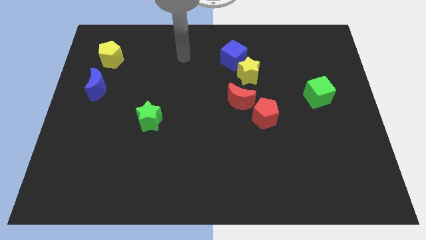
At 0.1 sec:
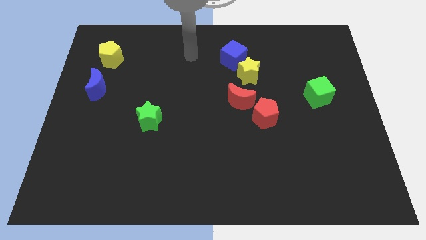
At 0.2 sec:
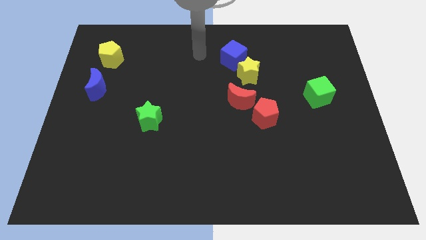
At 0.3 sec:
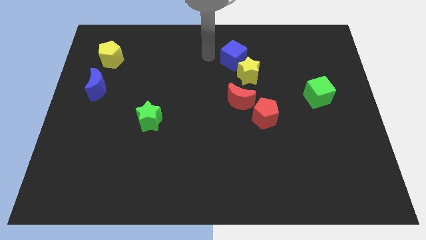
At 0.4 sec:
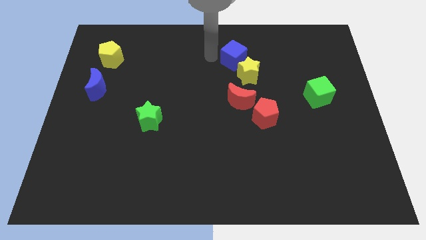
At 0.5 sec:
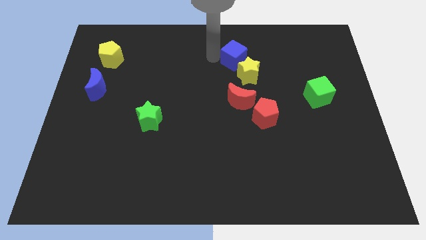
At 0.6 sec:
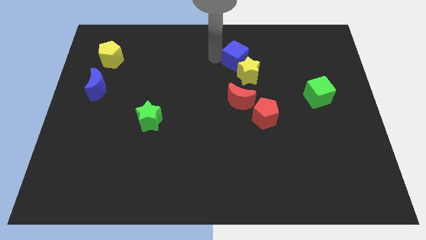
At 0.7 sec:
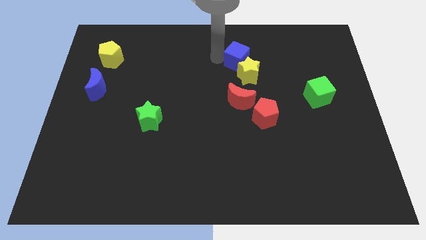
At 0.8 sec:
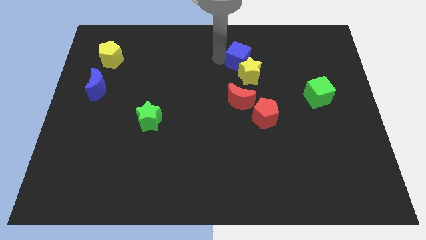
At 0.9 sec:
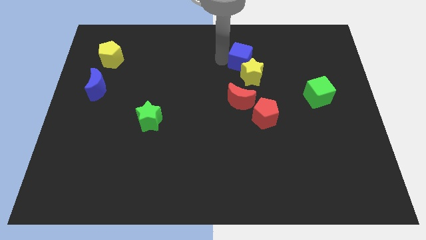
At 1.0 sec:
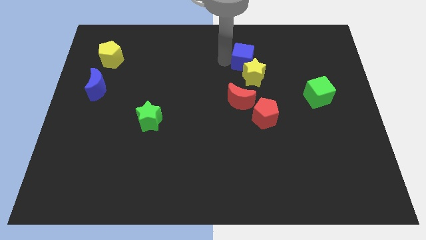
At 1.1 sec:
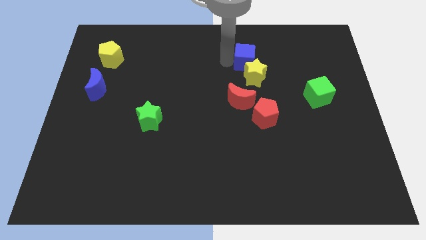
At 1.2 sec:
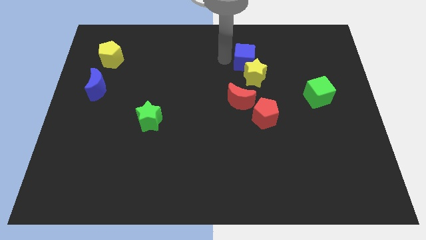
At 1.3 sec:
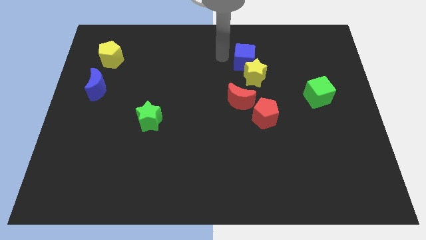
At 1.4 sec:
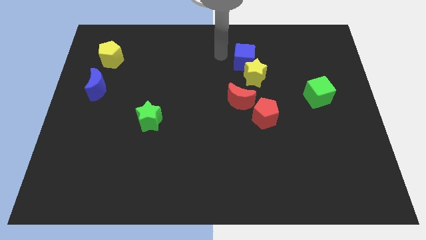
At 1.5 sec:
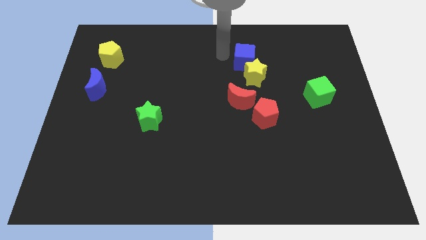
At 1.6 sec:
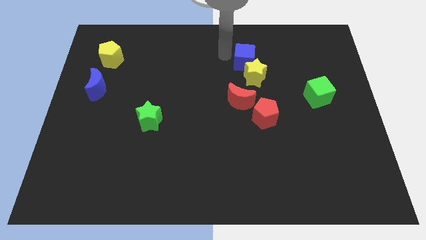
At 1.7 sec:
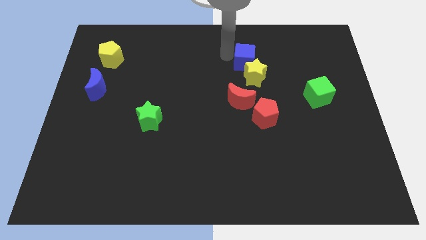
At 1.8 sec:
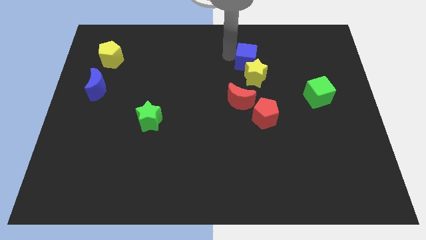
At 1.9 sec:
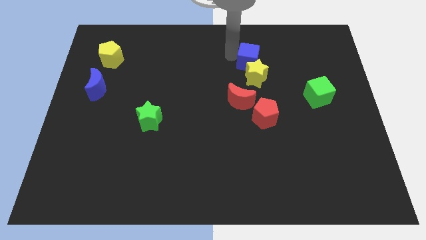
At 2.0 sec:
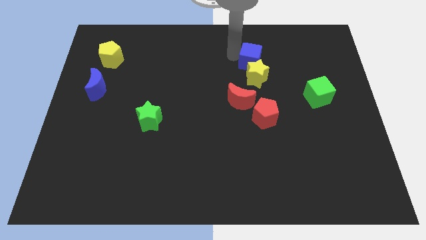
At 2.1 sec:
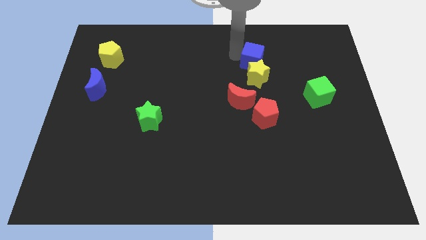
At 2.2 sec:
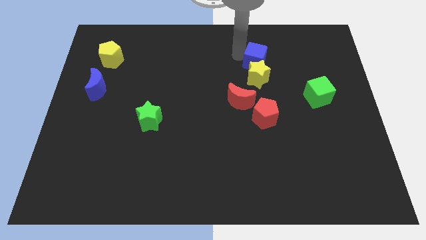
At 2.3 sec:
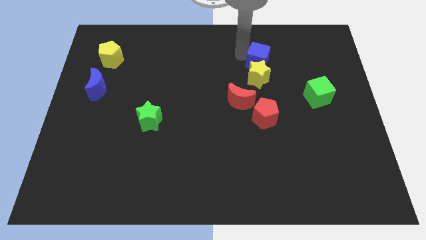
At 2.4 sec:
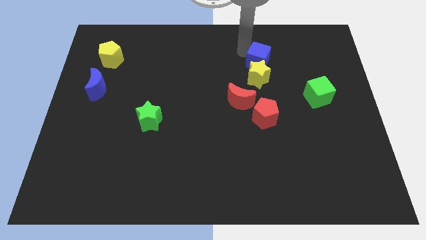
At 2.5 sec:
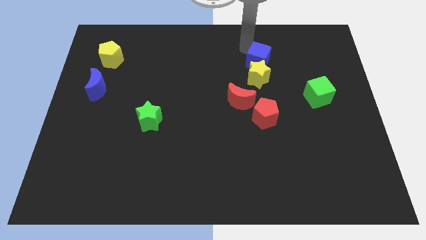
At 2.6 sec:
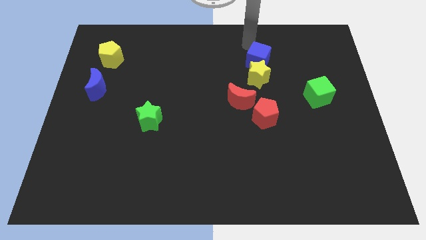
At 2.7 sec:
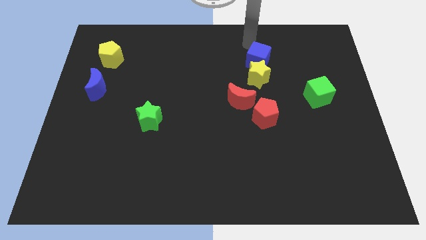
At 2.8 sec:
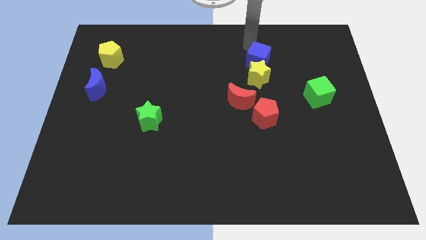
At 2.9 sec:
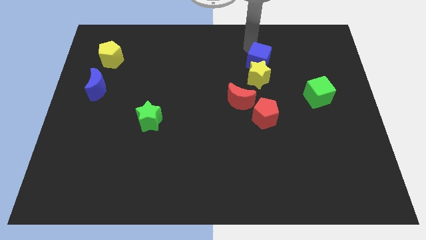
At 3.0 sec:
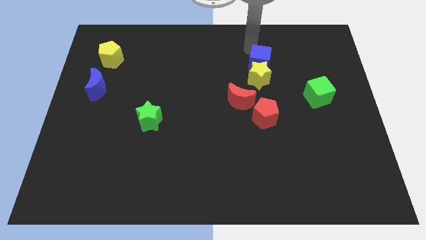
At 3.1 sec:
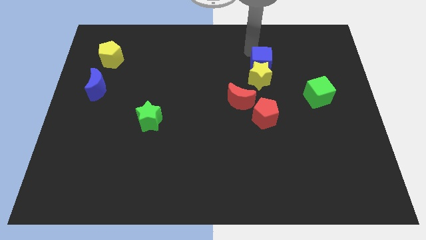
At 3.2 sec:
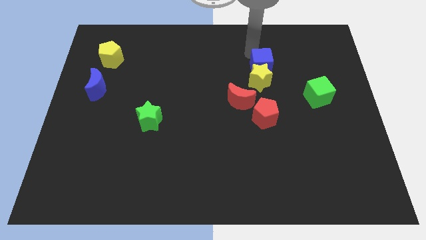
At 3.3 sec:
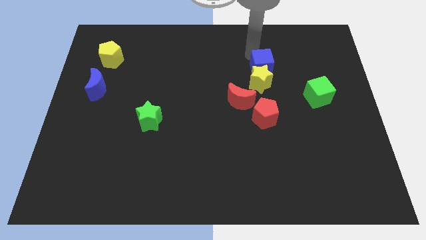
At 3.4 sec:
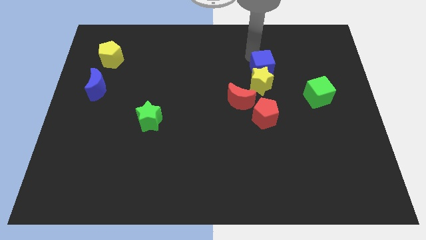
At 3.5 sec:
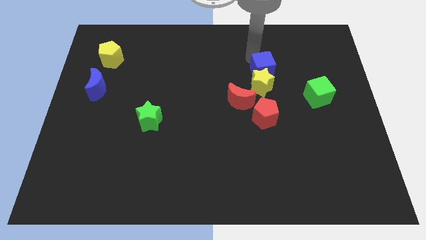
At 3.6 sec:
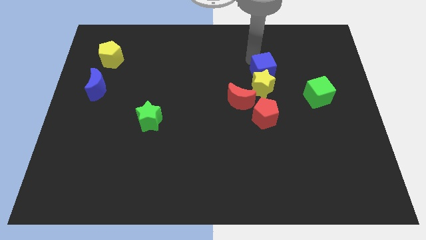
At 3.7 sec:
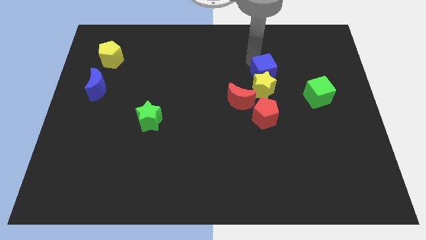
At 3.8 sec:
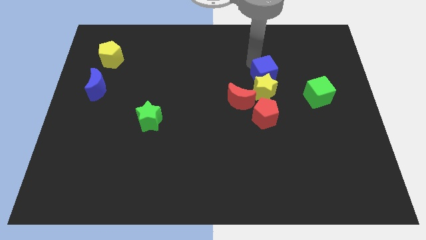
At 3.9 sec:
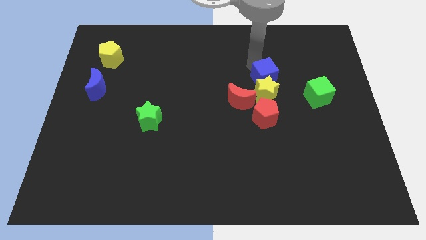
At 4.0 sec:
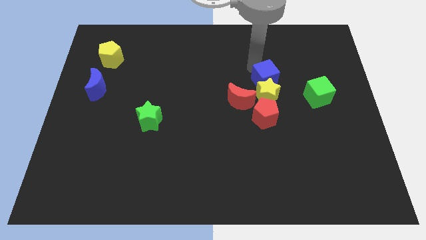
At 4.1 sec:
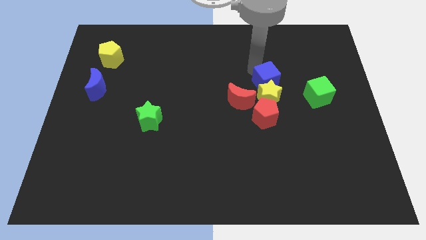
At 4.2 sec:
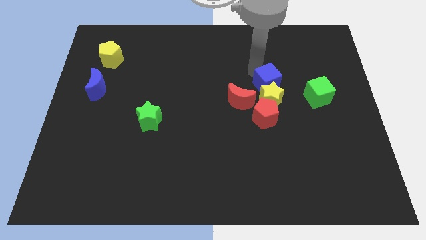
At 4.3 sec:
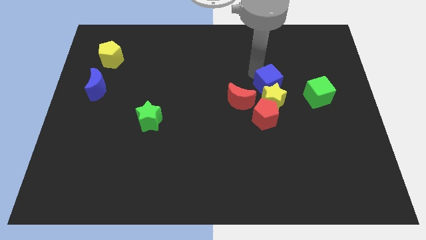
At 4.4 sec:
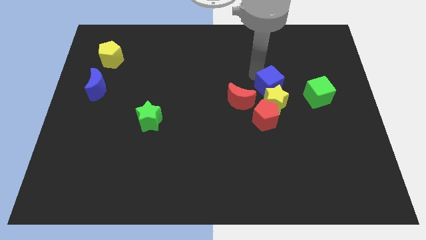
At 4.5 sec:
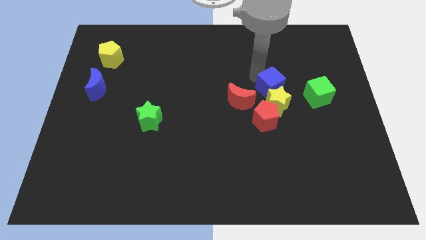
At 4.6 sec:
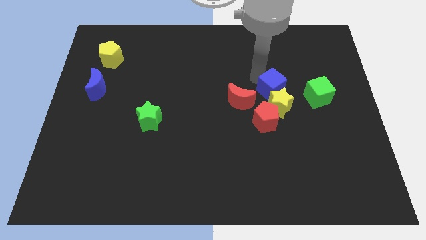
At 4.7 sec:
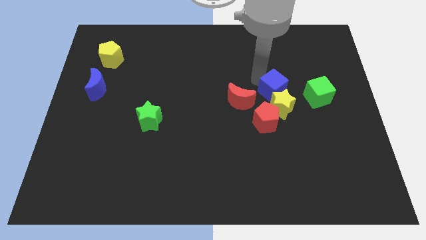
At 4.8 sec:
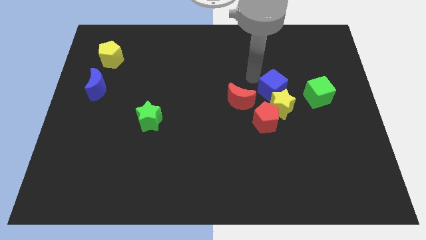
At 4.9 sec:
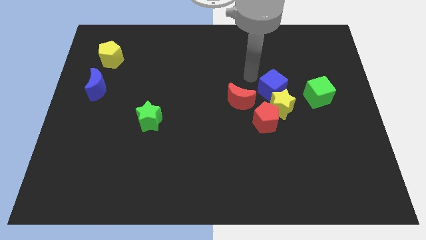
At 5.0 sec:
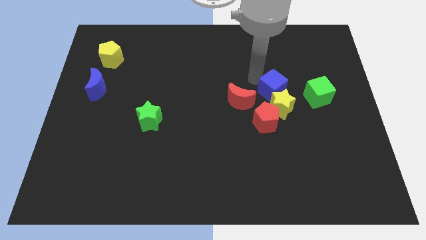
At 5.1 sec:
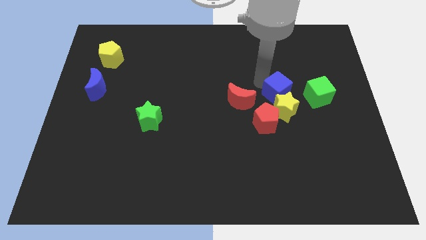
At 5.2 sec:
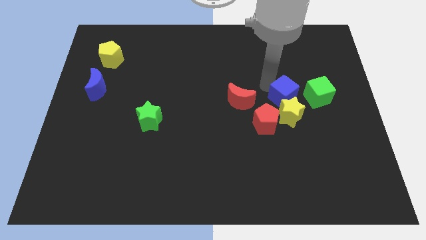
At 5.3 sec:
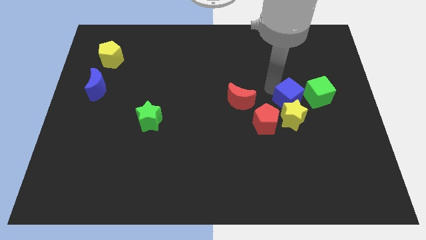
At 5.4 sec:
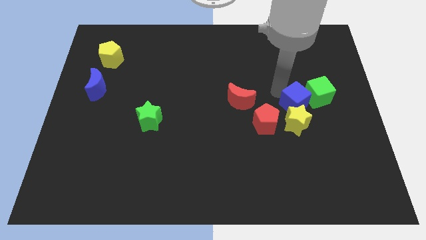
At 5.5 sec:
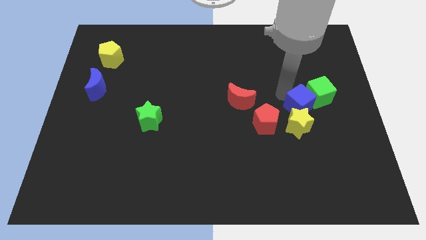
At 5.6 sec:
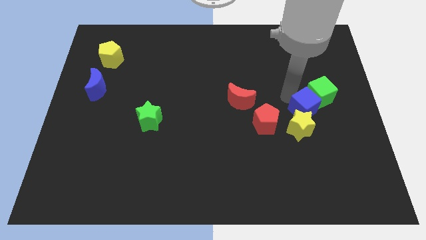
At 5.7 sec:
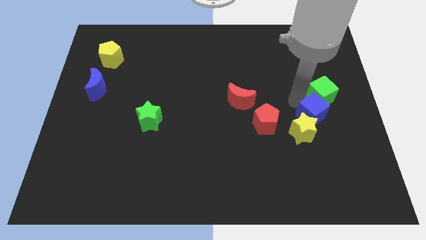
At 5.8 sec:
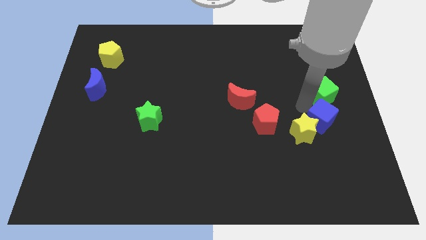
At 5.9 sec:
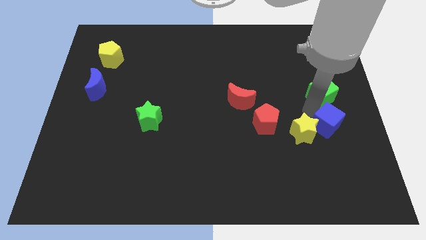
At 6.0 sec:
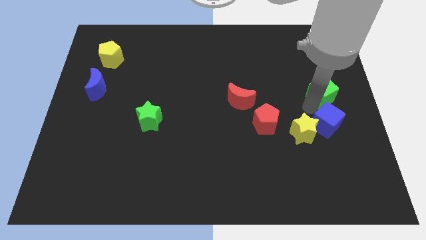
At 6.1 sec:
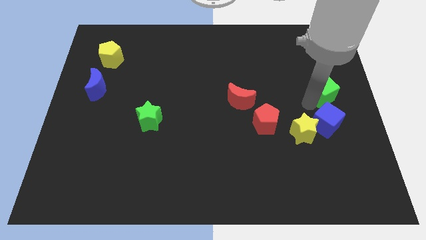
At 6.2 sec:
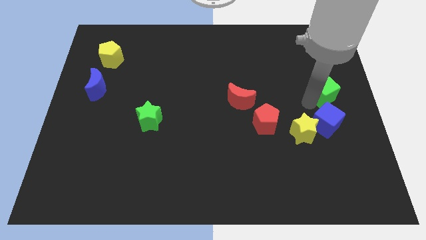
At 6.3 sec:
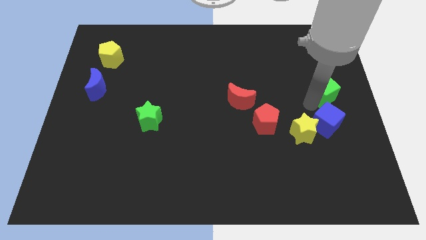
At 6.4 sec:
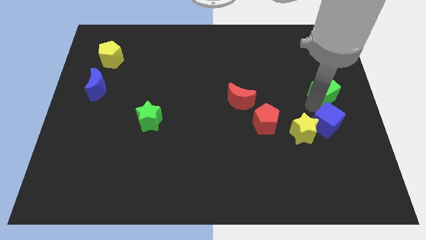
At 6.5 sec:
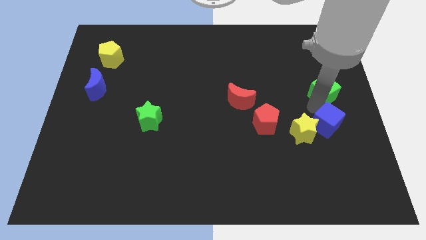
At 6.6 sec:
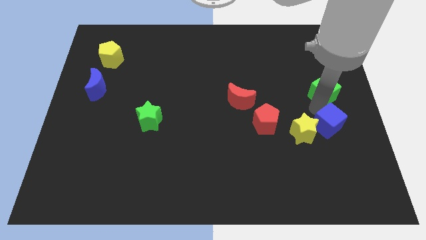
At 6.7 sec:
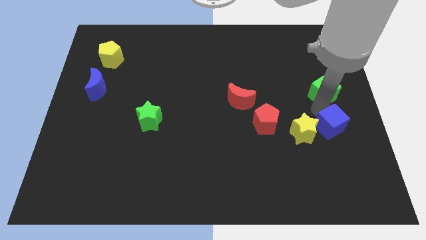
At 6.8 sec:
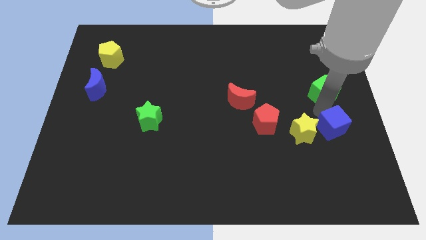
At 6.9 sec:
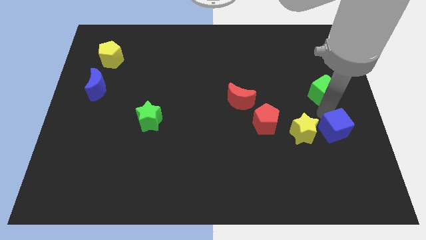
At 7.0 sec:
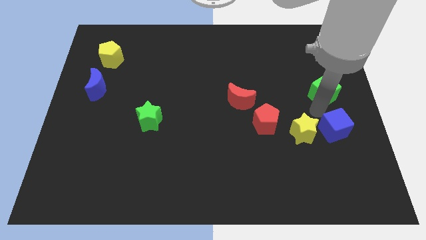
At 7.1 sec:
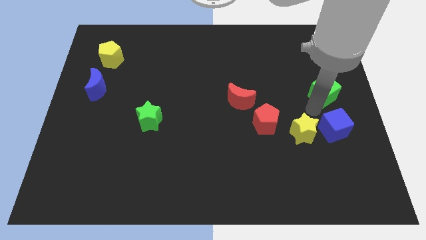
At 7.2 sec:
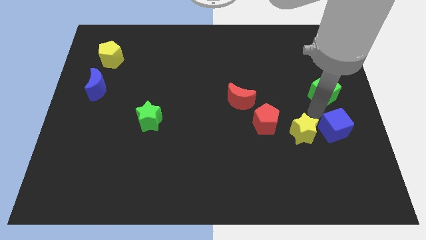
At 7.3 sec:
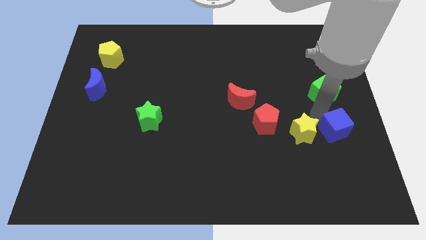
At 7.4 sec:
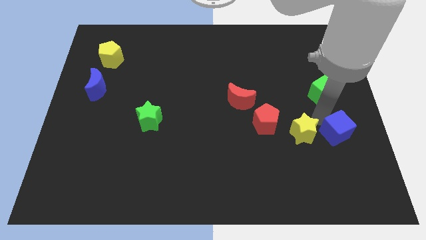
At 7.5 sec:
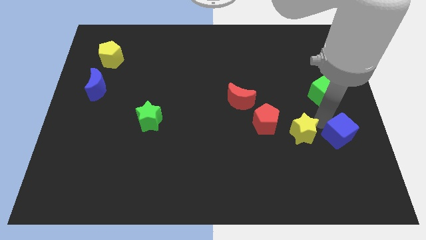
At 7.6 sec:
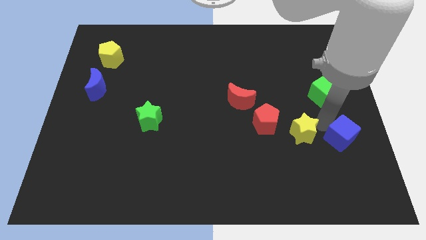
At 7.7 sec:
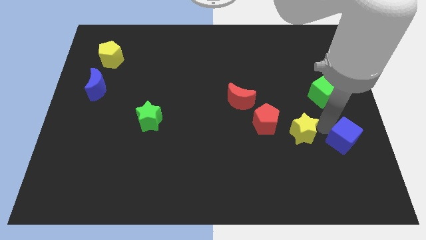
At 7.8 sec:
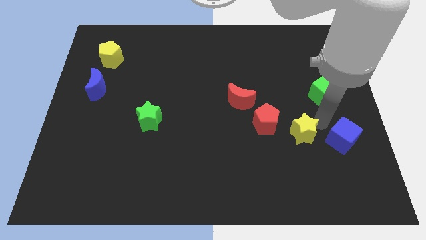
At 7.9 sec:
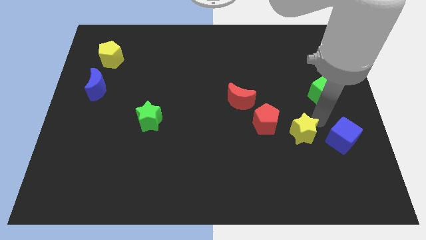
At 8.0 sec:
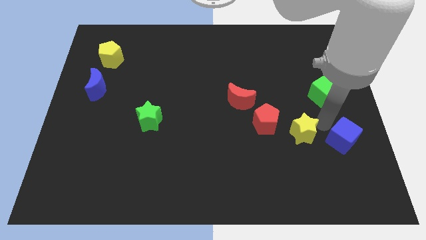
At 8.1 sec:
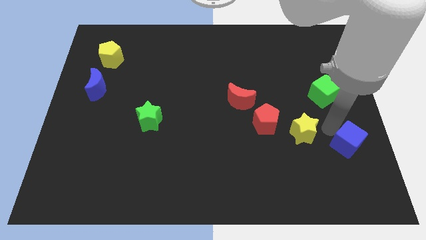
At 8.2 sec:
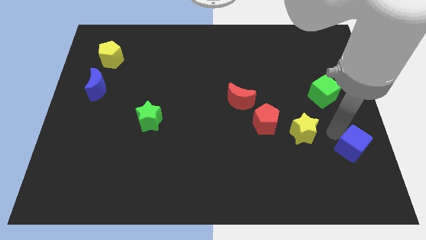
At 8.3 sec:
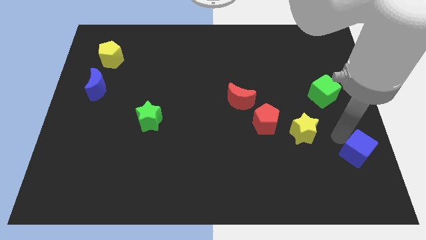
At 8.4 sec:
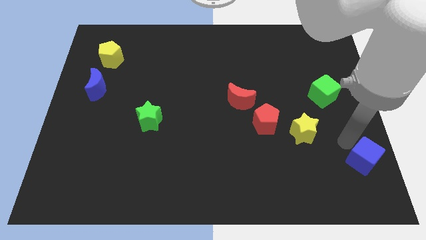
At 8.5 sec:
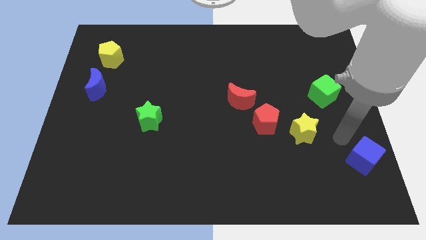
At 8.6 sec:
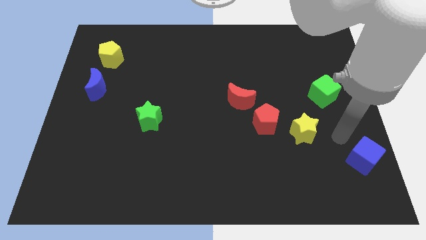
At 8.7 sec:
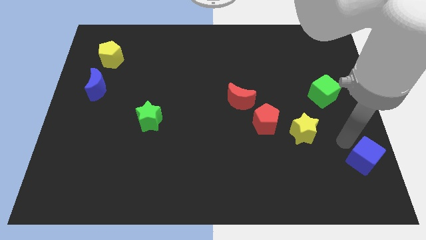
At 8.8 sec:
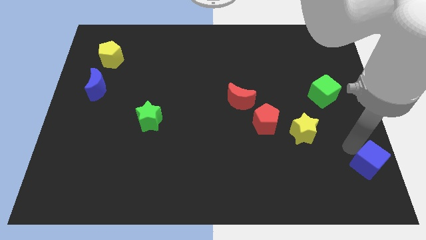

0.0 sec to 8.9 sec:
move the blue cube to the bottom right corner
